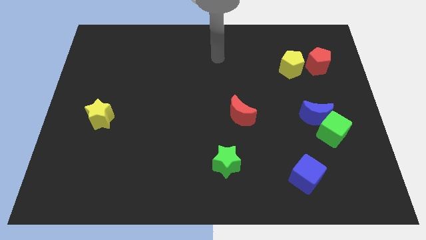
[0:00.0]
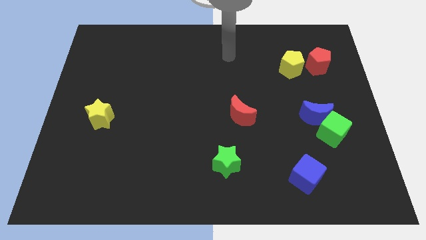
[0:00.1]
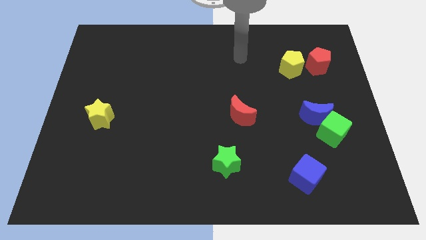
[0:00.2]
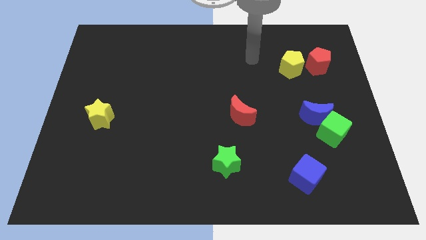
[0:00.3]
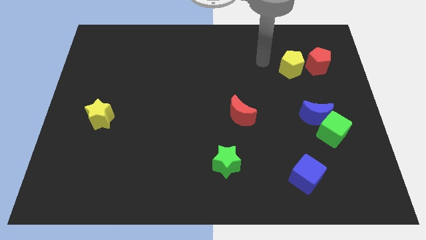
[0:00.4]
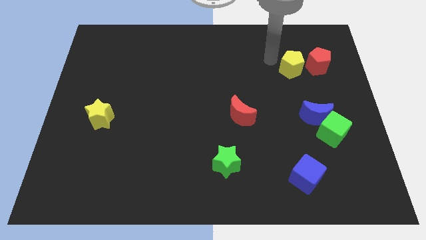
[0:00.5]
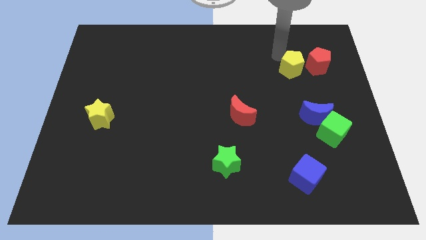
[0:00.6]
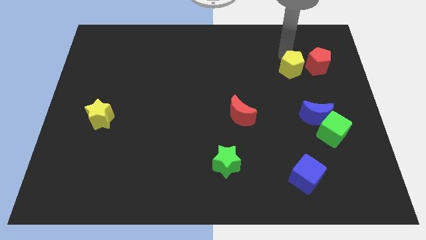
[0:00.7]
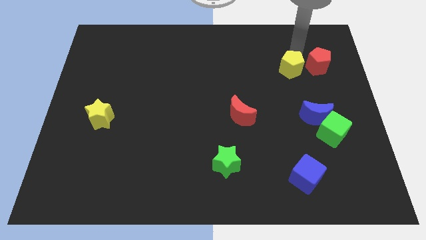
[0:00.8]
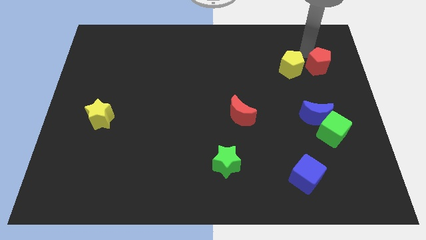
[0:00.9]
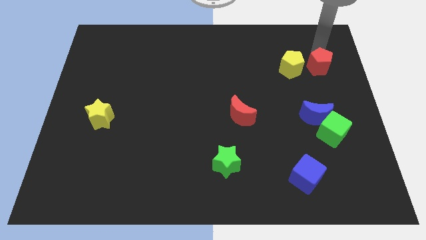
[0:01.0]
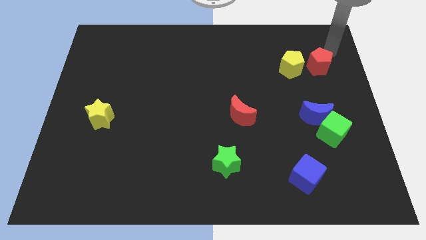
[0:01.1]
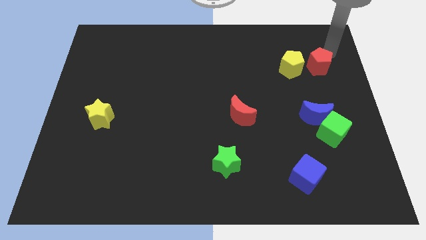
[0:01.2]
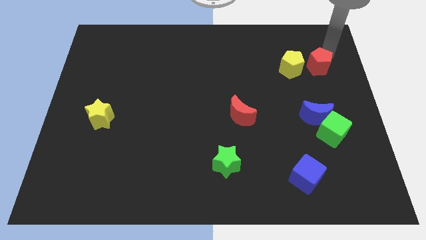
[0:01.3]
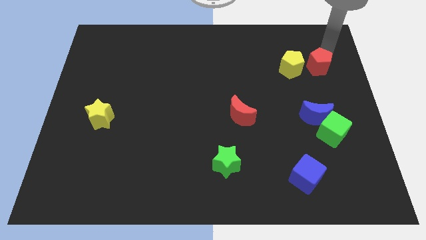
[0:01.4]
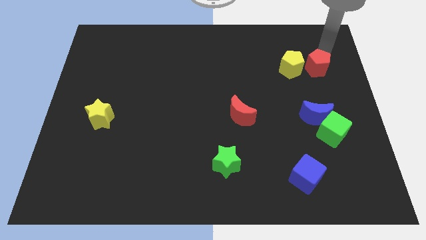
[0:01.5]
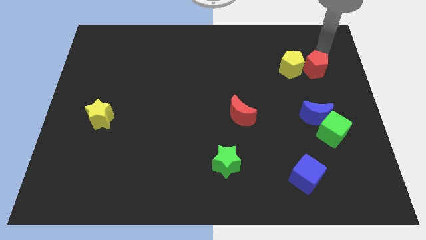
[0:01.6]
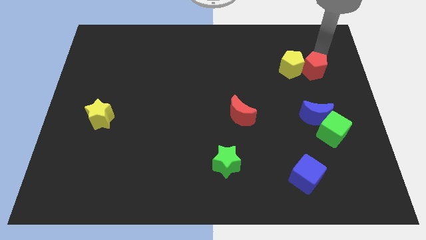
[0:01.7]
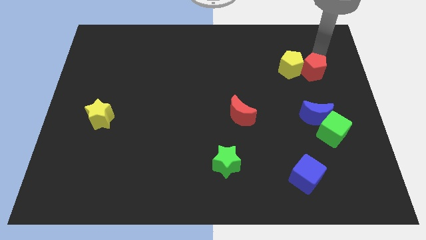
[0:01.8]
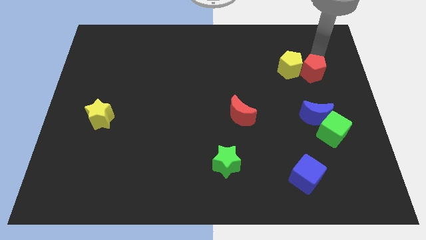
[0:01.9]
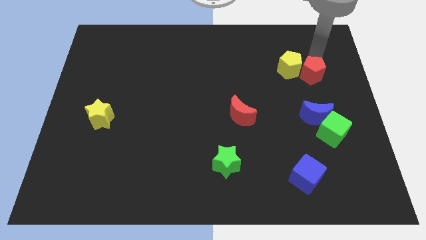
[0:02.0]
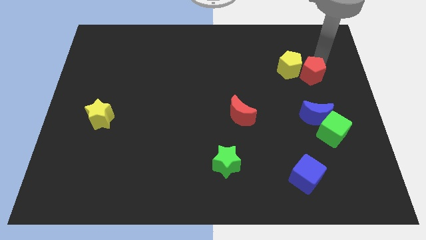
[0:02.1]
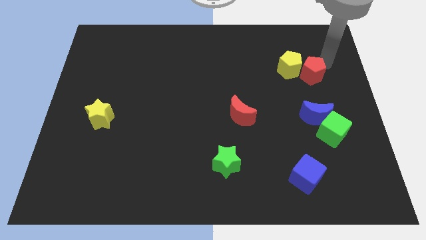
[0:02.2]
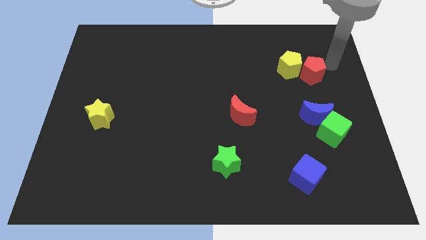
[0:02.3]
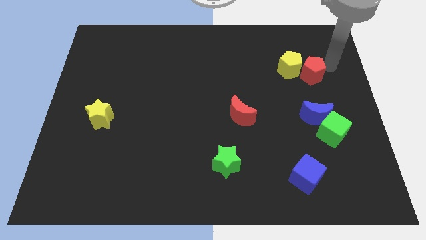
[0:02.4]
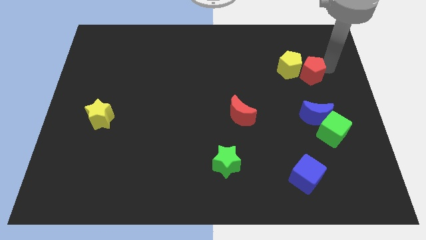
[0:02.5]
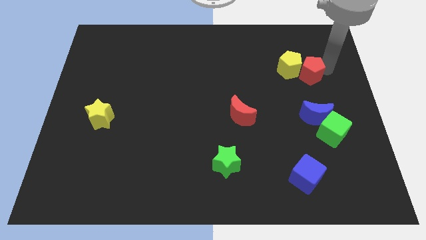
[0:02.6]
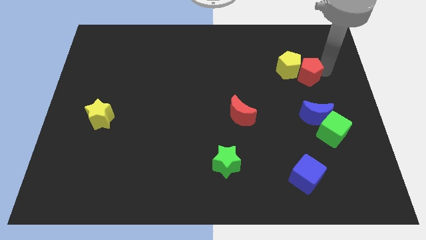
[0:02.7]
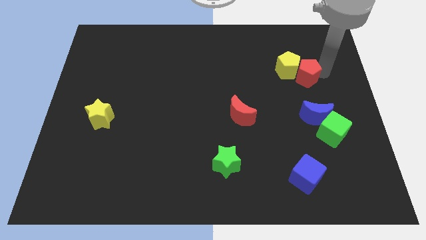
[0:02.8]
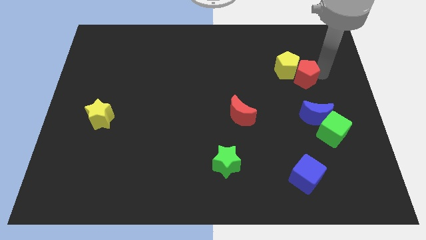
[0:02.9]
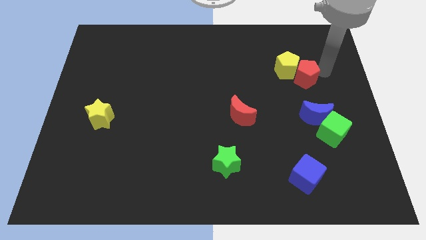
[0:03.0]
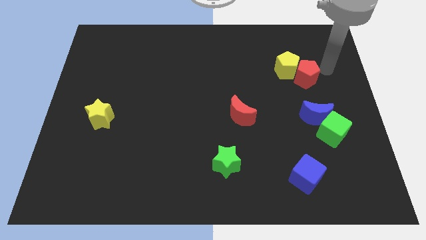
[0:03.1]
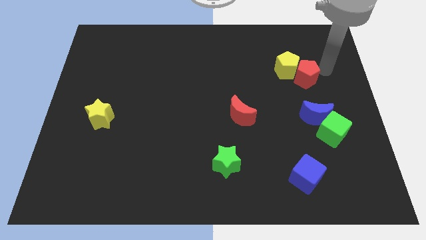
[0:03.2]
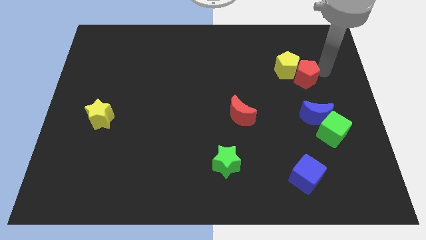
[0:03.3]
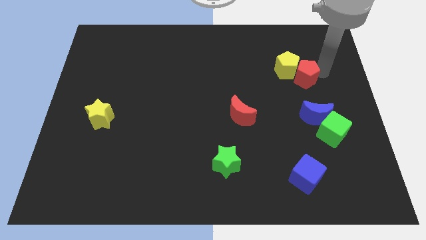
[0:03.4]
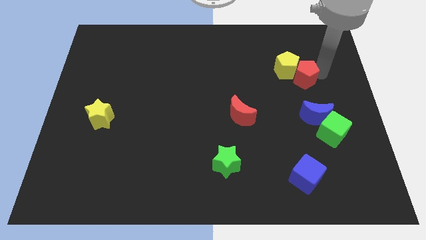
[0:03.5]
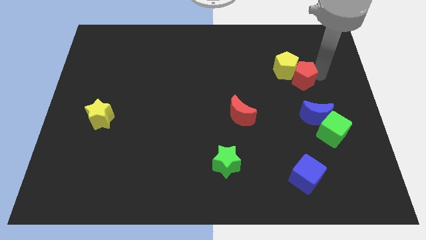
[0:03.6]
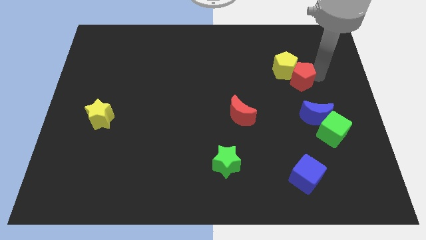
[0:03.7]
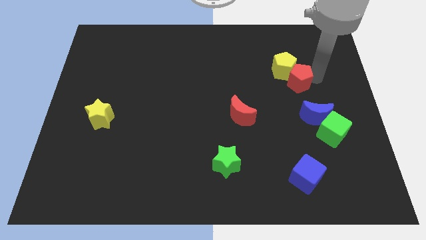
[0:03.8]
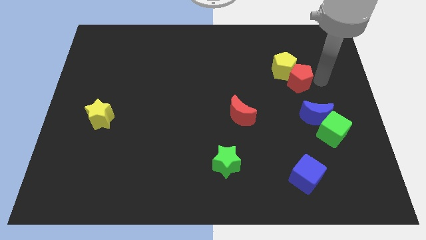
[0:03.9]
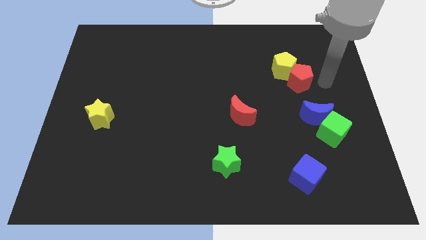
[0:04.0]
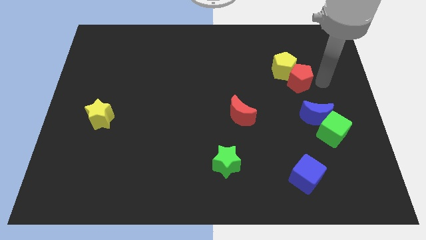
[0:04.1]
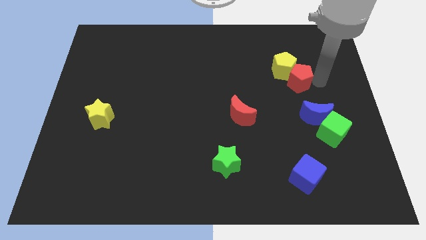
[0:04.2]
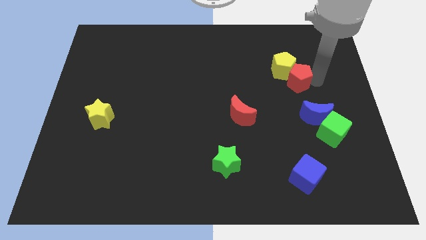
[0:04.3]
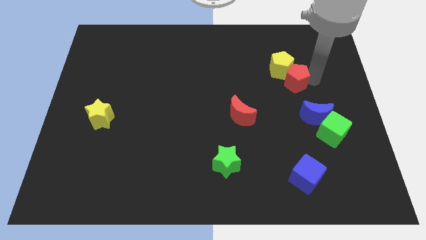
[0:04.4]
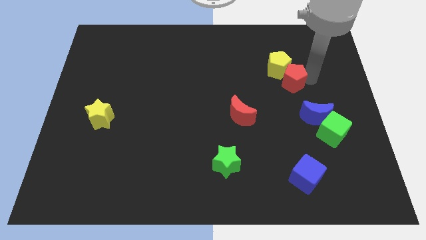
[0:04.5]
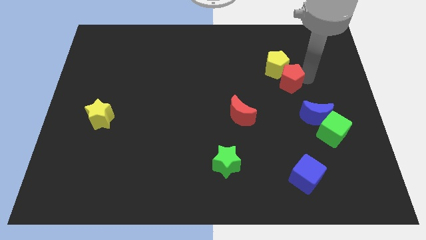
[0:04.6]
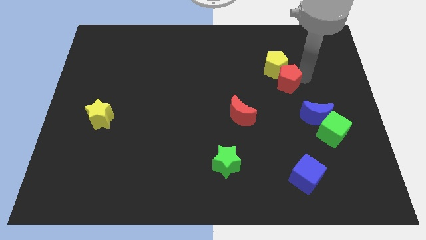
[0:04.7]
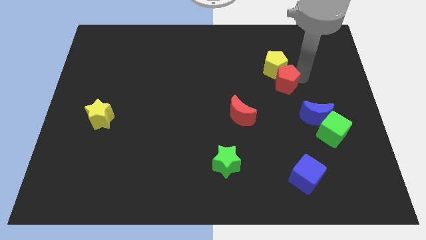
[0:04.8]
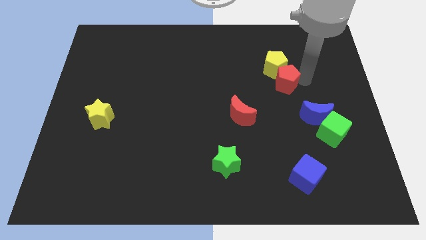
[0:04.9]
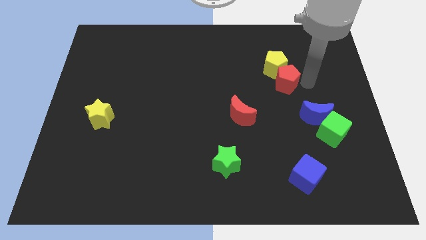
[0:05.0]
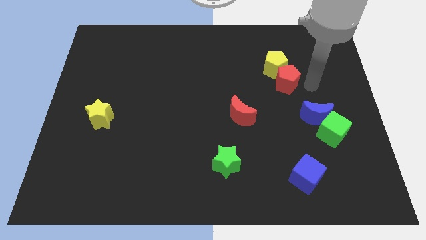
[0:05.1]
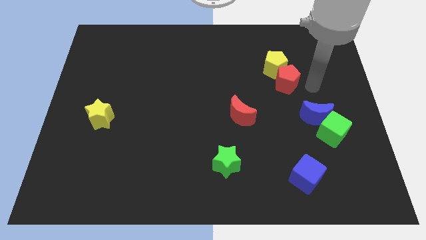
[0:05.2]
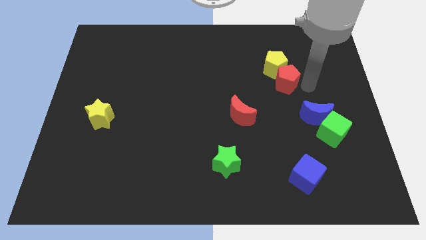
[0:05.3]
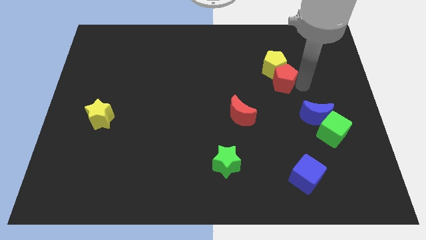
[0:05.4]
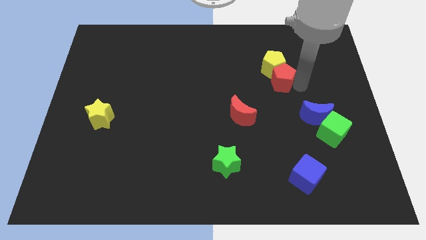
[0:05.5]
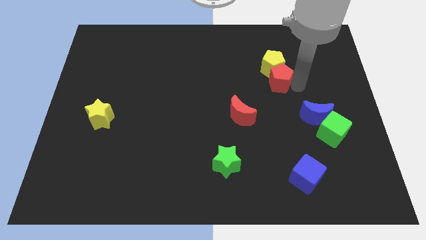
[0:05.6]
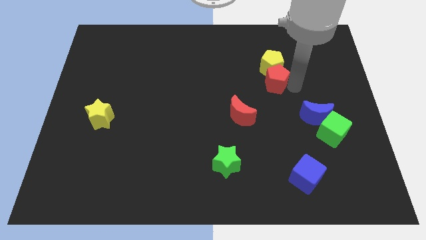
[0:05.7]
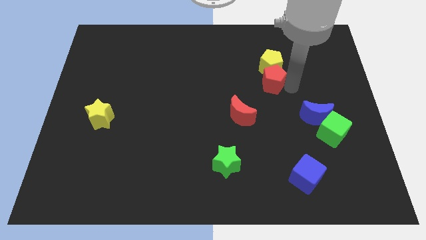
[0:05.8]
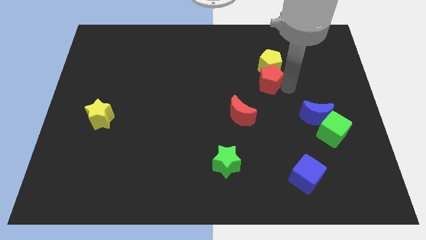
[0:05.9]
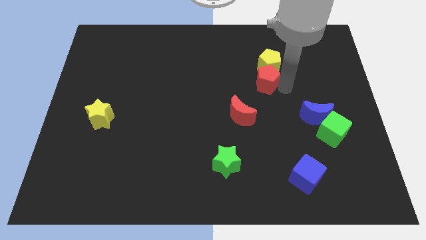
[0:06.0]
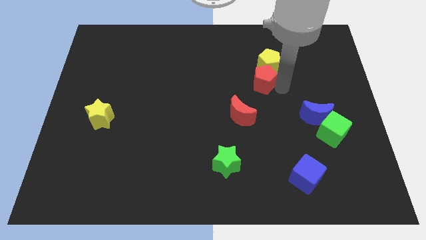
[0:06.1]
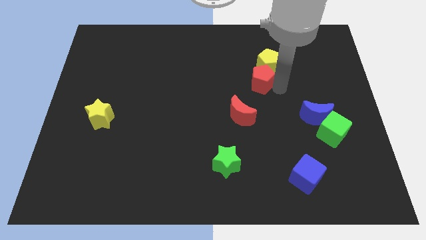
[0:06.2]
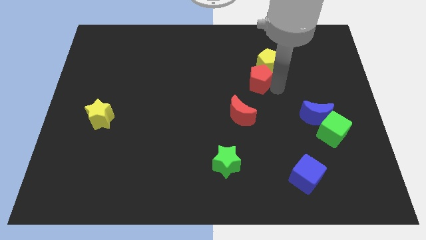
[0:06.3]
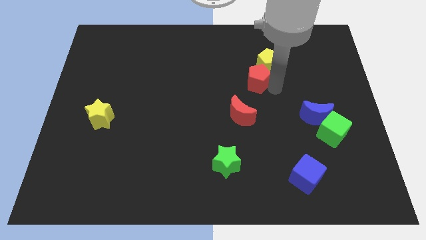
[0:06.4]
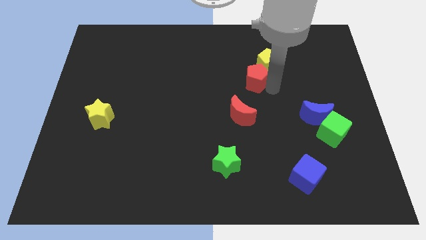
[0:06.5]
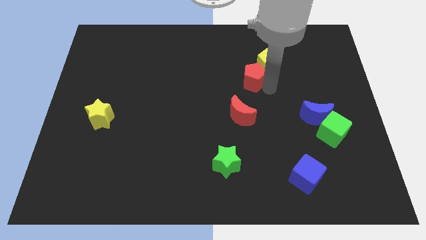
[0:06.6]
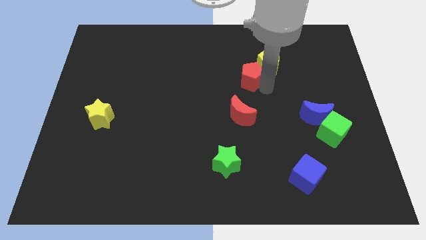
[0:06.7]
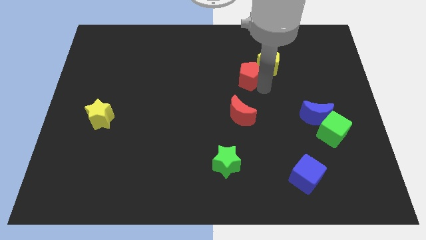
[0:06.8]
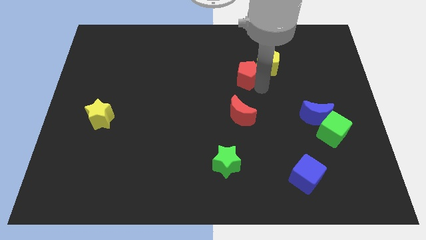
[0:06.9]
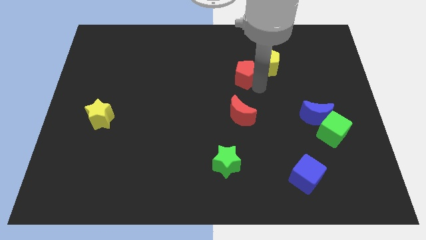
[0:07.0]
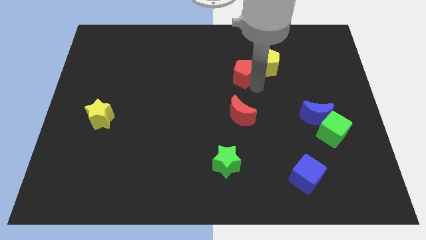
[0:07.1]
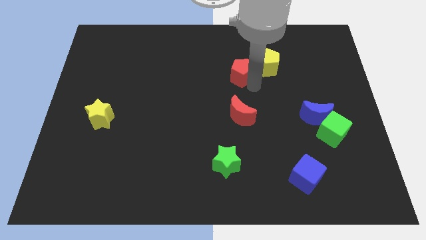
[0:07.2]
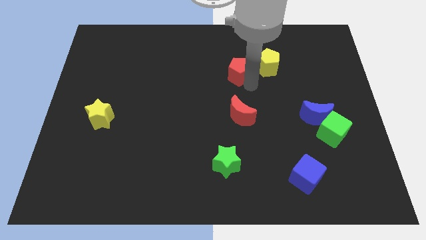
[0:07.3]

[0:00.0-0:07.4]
slide the red pentagon left

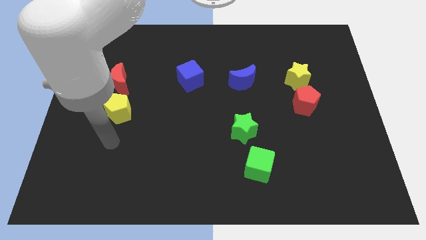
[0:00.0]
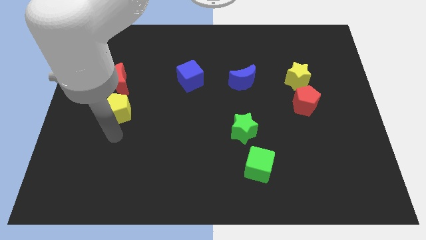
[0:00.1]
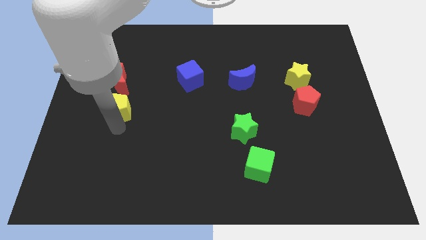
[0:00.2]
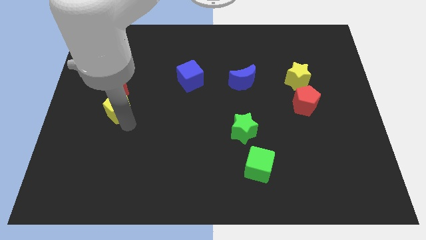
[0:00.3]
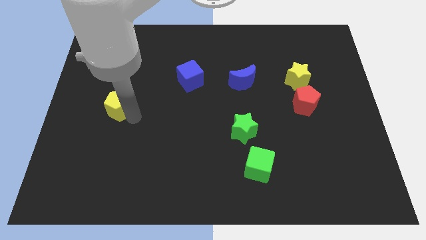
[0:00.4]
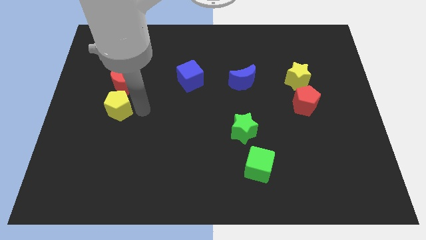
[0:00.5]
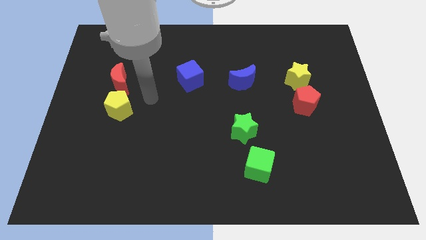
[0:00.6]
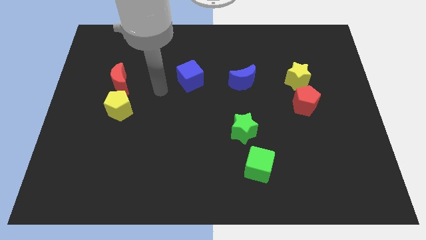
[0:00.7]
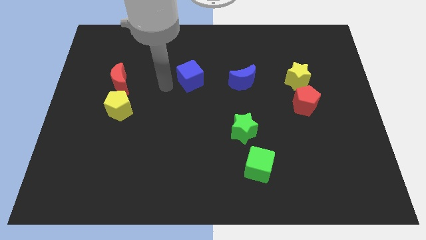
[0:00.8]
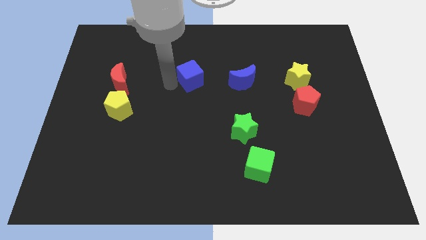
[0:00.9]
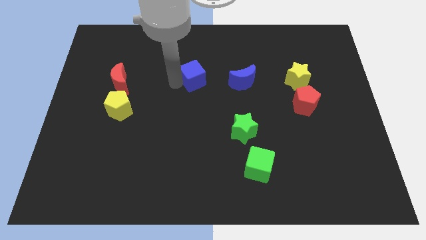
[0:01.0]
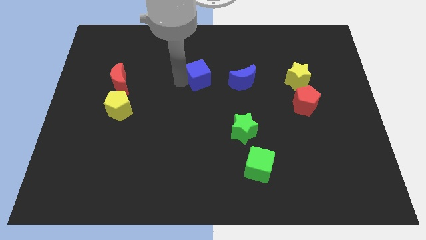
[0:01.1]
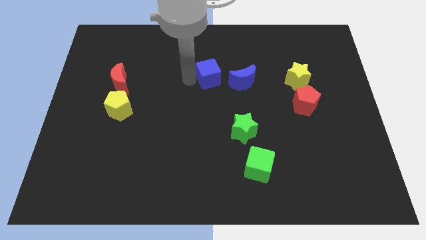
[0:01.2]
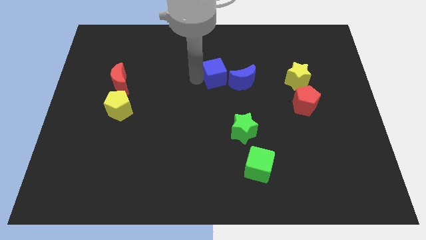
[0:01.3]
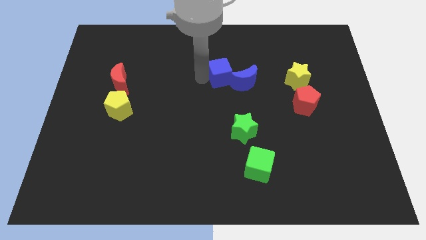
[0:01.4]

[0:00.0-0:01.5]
push the blue cube right slightly
